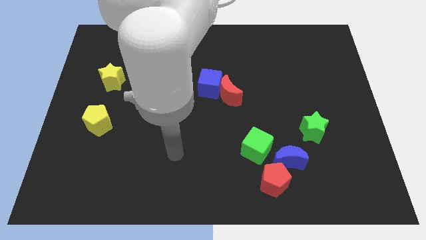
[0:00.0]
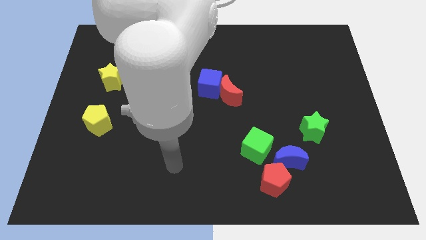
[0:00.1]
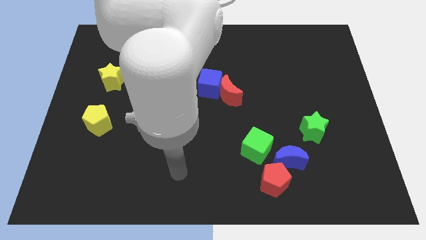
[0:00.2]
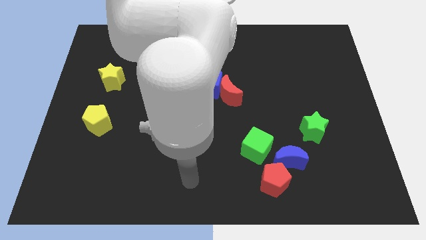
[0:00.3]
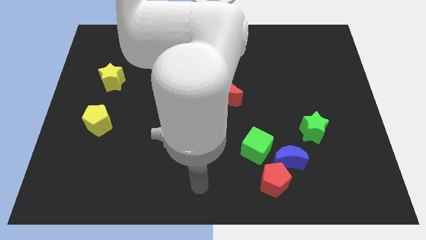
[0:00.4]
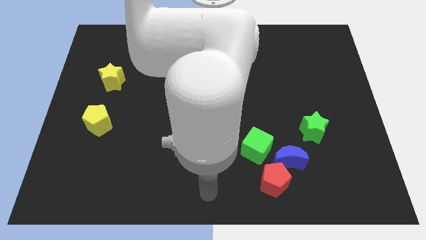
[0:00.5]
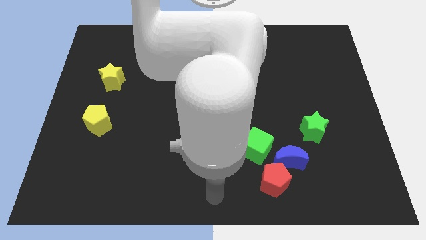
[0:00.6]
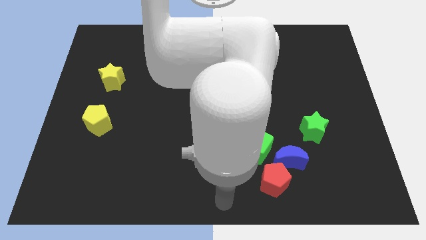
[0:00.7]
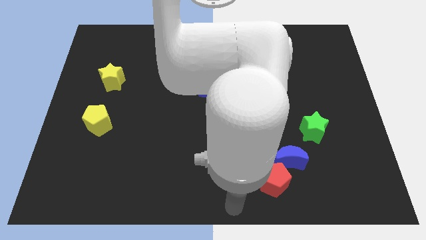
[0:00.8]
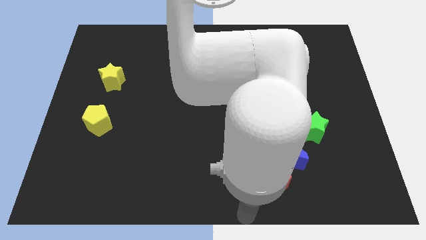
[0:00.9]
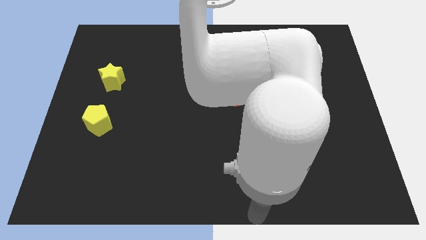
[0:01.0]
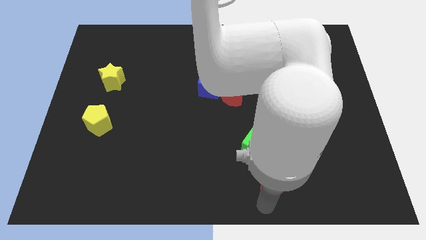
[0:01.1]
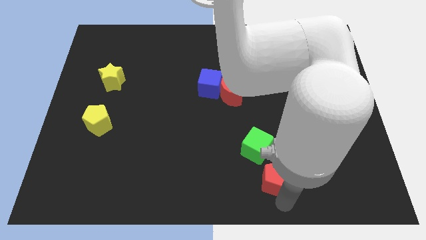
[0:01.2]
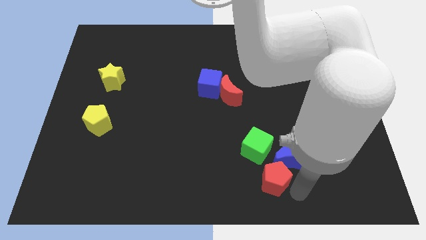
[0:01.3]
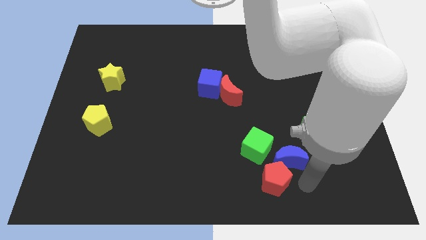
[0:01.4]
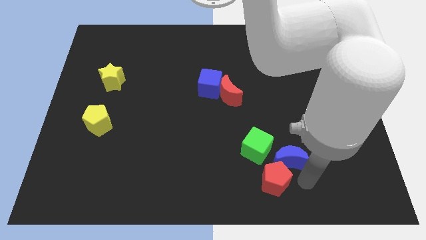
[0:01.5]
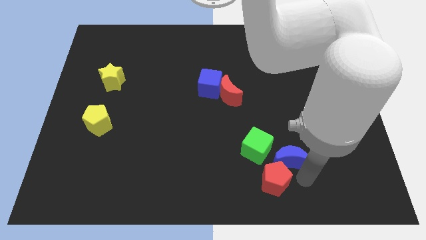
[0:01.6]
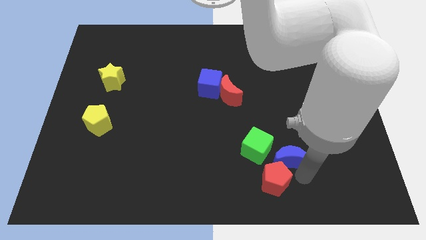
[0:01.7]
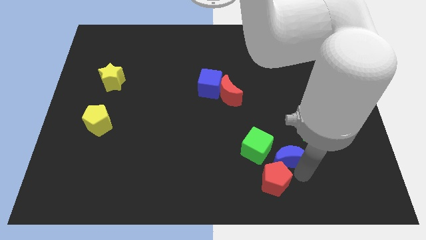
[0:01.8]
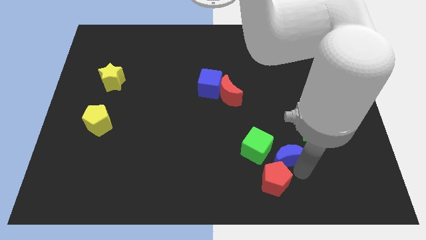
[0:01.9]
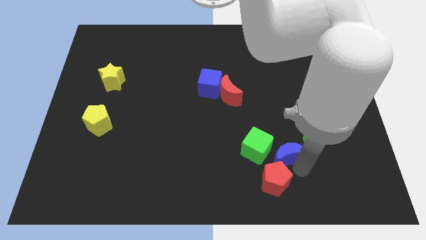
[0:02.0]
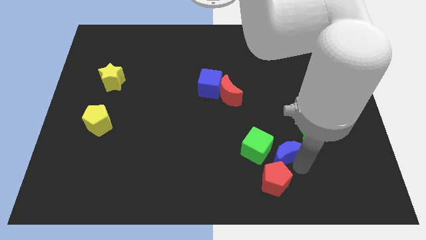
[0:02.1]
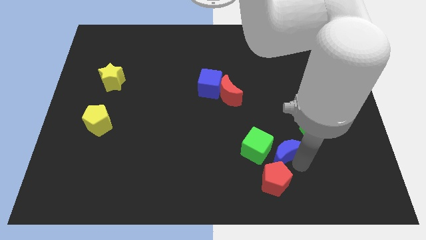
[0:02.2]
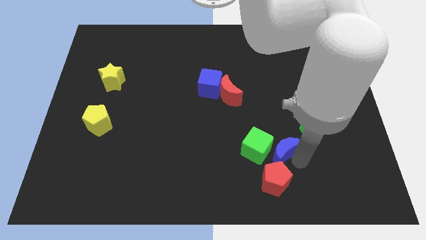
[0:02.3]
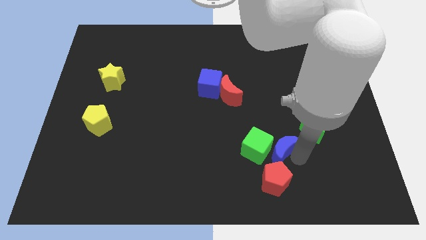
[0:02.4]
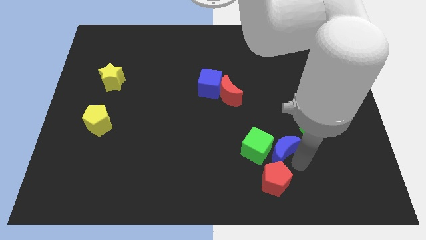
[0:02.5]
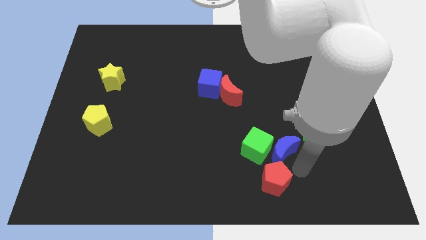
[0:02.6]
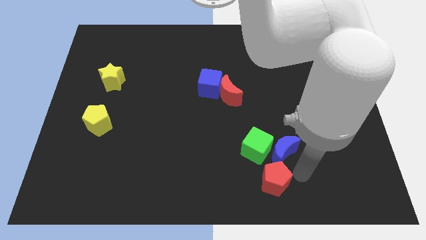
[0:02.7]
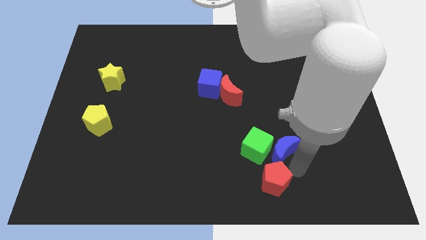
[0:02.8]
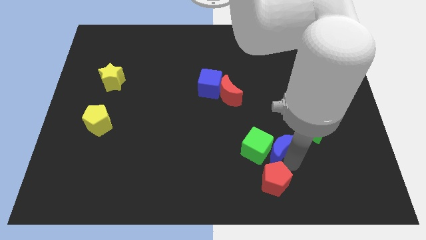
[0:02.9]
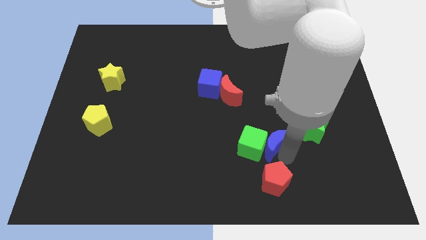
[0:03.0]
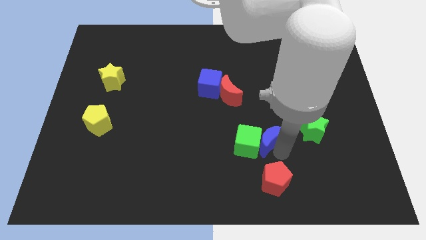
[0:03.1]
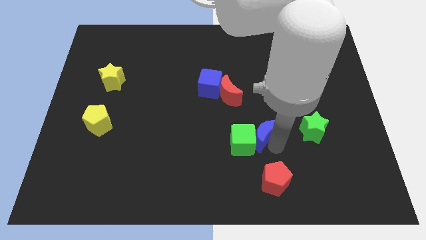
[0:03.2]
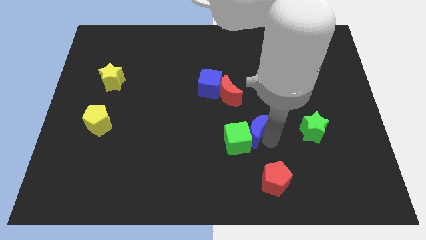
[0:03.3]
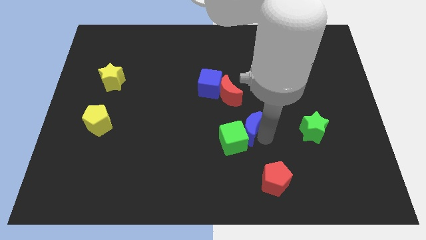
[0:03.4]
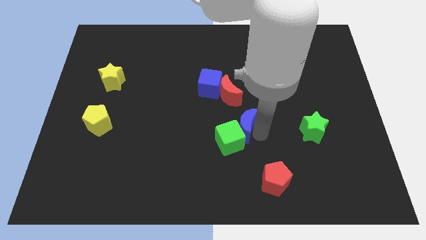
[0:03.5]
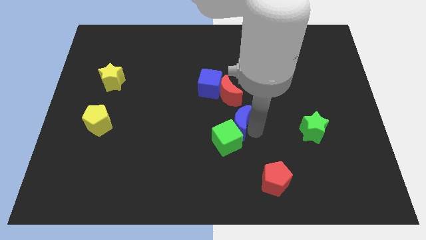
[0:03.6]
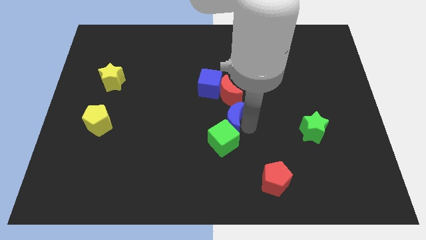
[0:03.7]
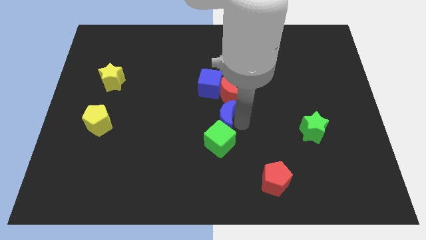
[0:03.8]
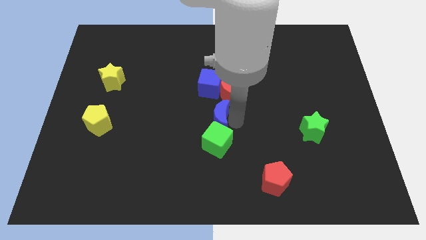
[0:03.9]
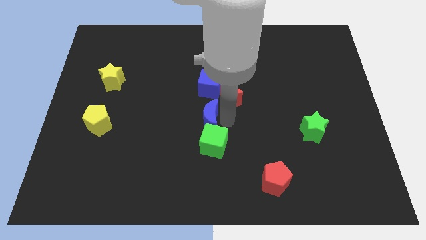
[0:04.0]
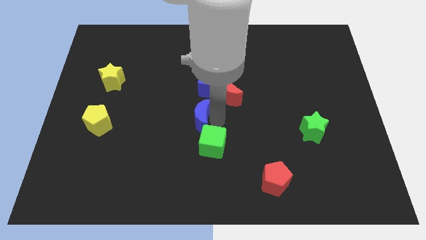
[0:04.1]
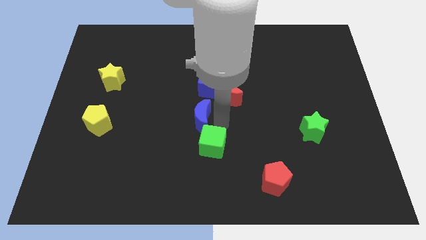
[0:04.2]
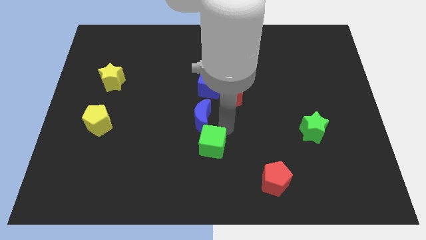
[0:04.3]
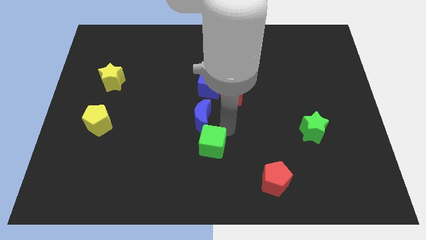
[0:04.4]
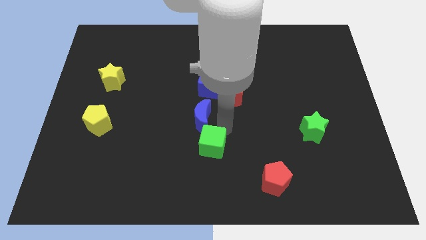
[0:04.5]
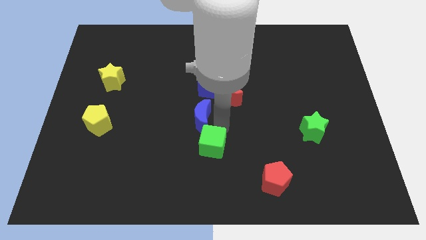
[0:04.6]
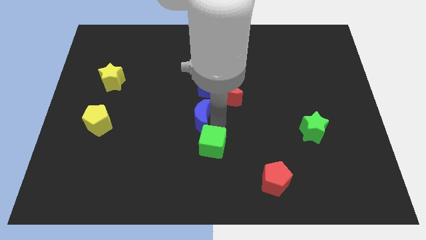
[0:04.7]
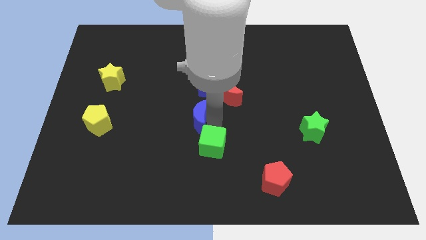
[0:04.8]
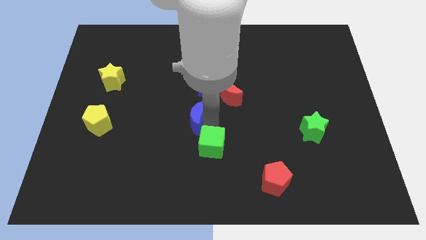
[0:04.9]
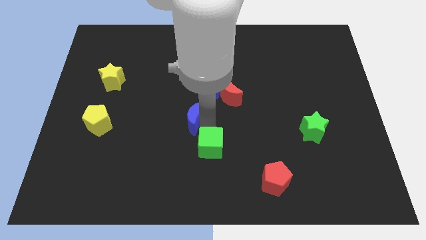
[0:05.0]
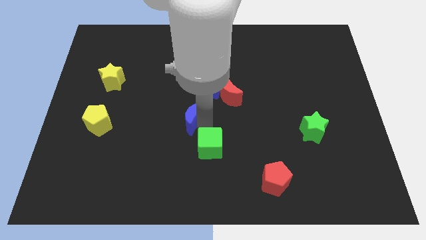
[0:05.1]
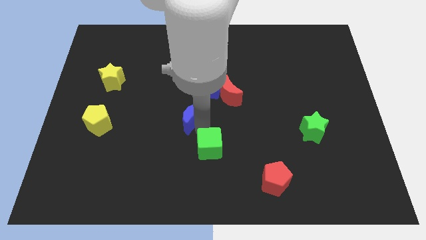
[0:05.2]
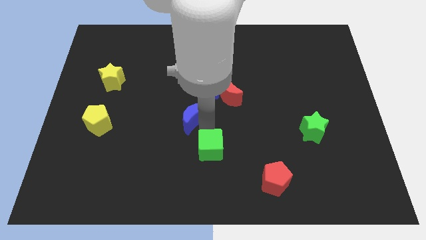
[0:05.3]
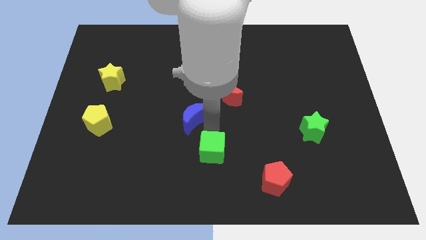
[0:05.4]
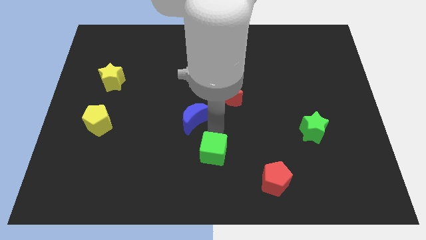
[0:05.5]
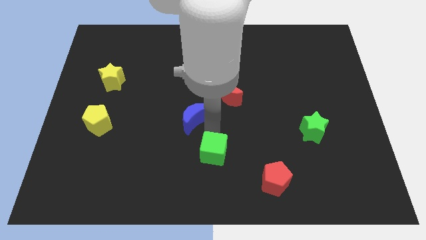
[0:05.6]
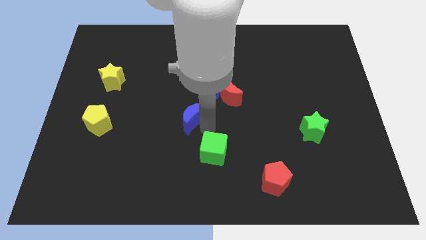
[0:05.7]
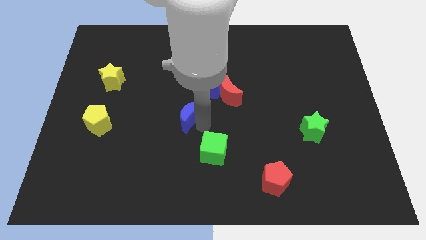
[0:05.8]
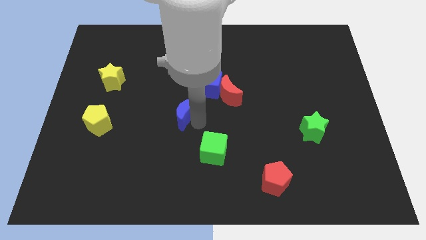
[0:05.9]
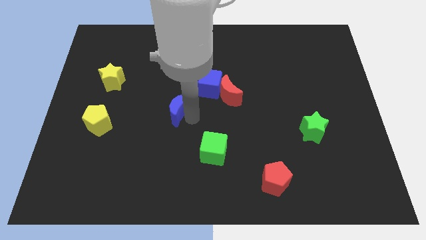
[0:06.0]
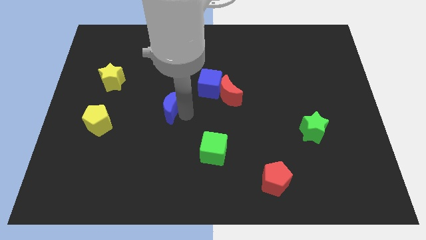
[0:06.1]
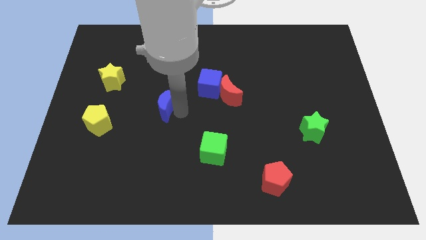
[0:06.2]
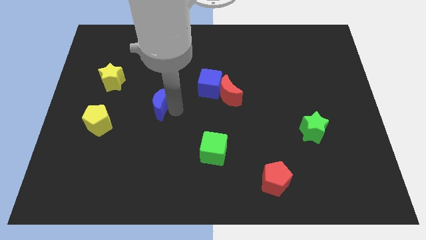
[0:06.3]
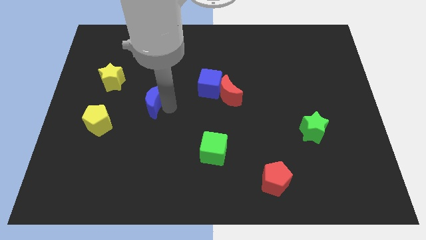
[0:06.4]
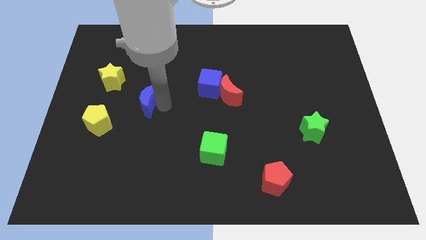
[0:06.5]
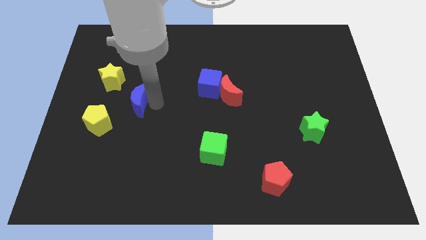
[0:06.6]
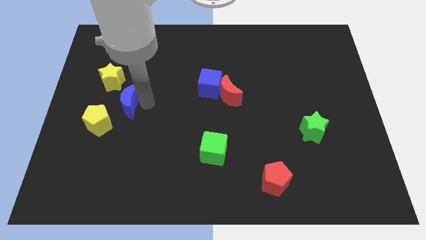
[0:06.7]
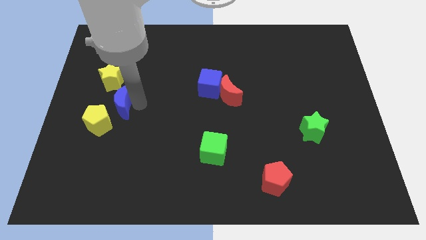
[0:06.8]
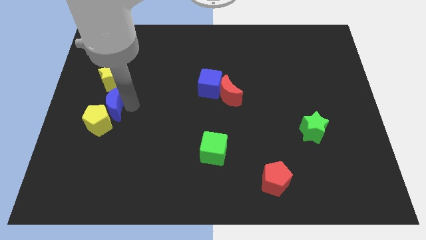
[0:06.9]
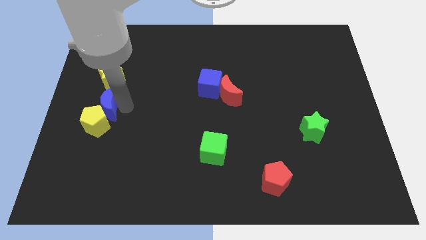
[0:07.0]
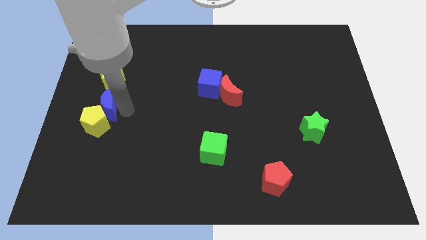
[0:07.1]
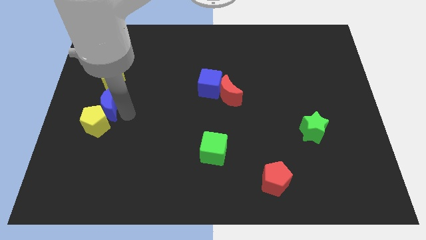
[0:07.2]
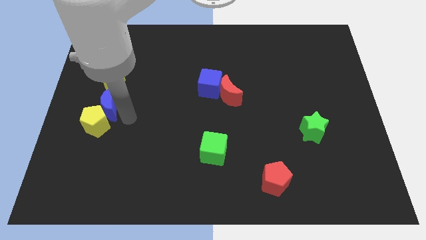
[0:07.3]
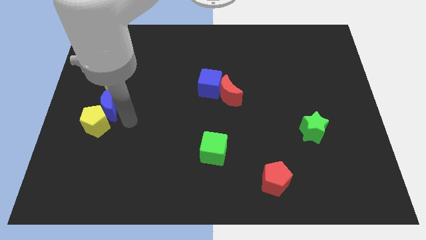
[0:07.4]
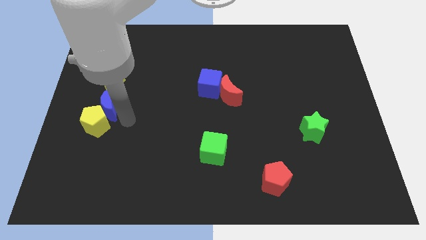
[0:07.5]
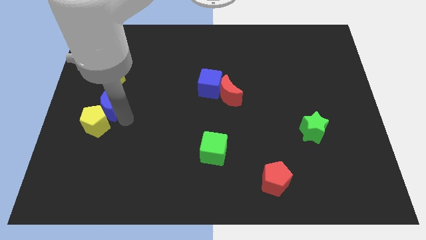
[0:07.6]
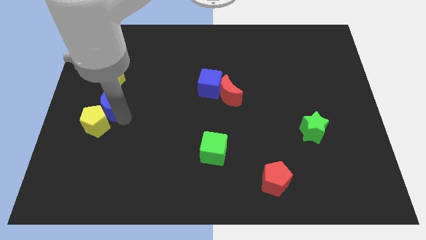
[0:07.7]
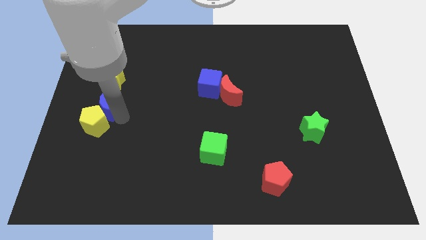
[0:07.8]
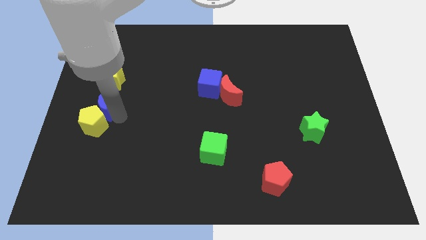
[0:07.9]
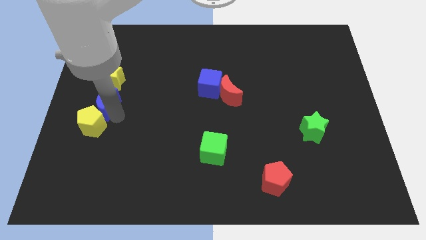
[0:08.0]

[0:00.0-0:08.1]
put the blue moon to the left side of the board
